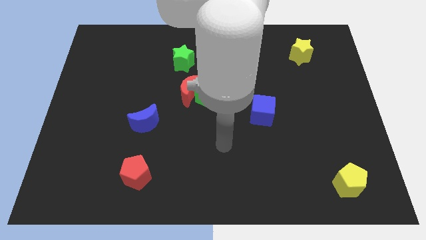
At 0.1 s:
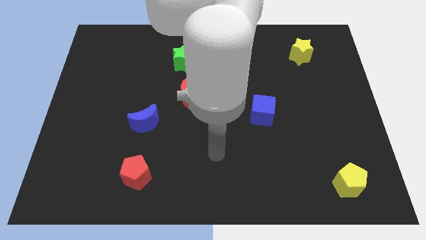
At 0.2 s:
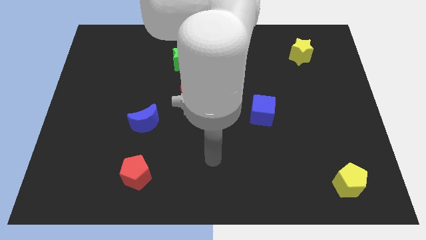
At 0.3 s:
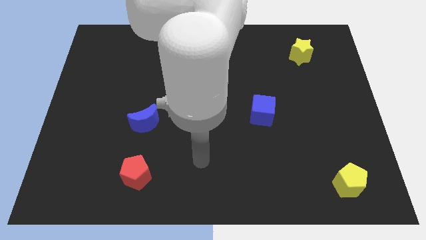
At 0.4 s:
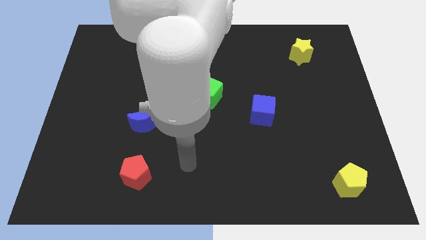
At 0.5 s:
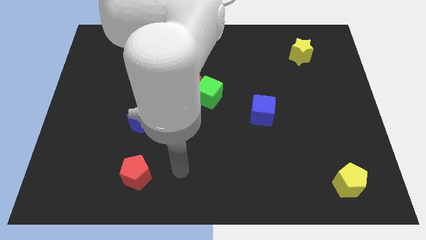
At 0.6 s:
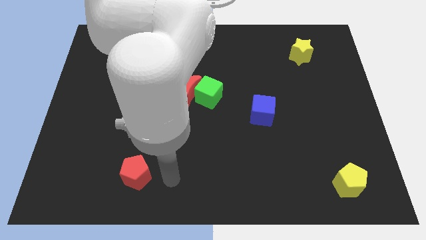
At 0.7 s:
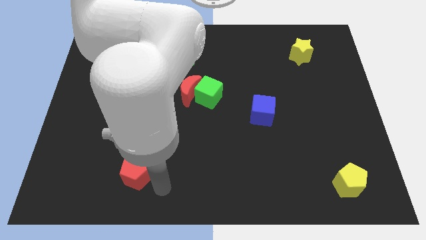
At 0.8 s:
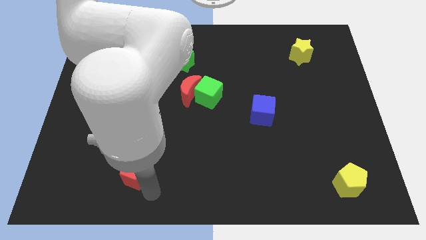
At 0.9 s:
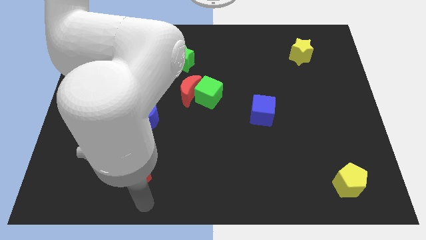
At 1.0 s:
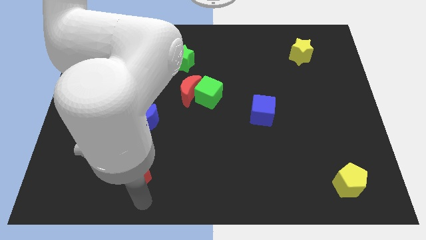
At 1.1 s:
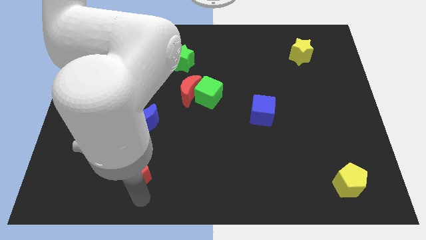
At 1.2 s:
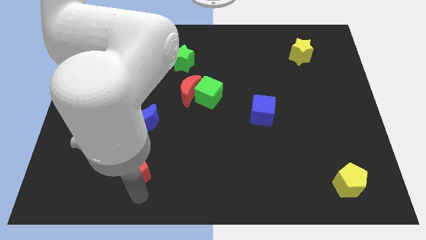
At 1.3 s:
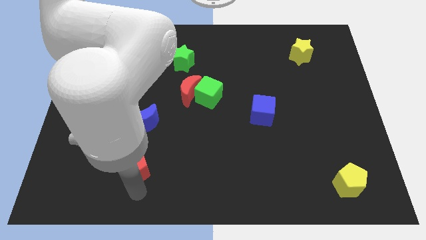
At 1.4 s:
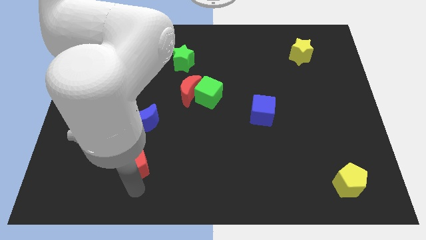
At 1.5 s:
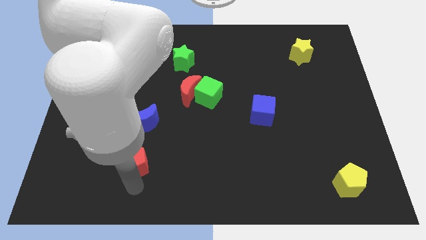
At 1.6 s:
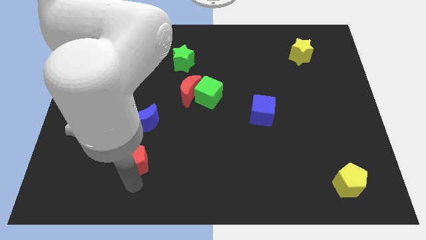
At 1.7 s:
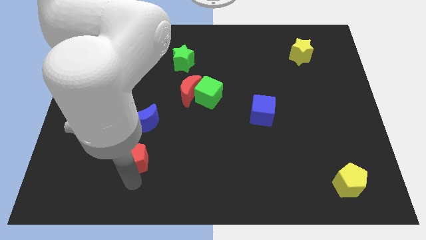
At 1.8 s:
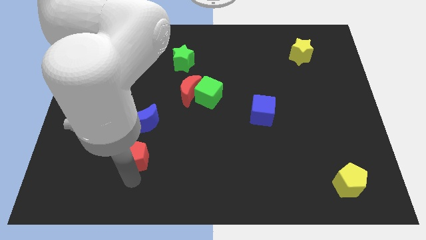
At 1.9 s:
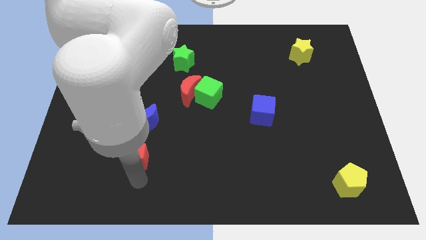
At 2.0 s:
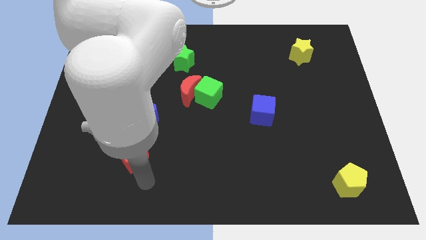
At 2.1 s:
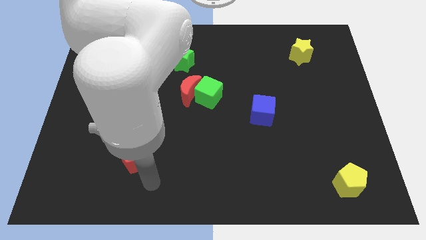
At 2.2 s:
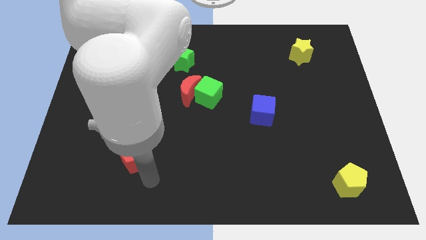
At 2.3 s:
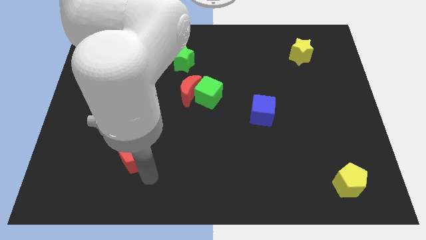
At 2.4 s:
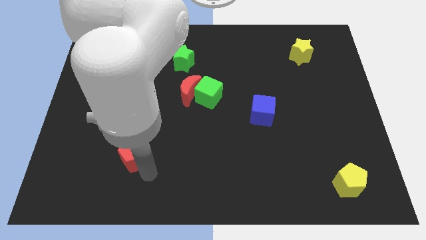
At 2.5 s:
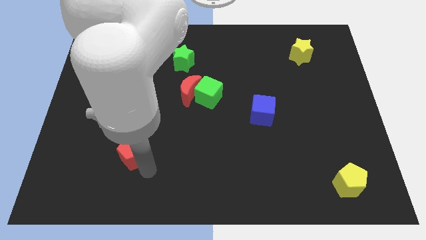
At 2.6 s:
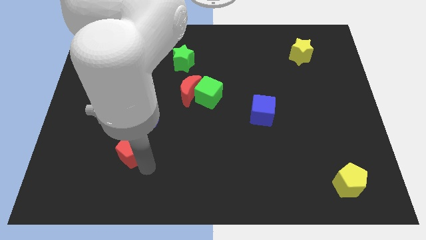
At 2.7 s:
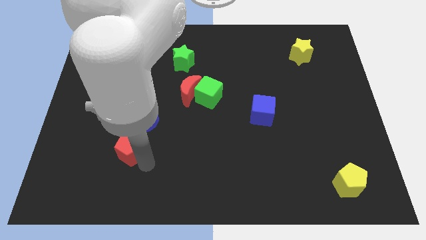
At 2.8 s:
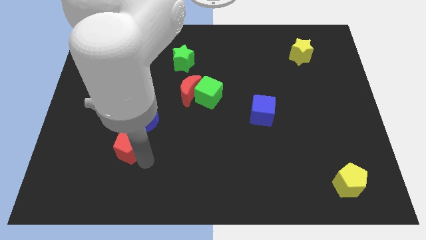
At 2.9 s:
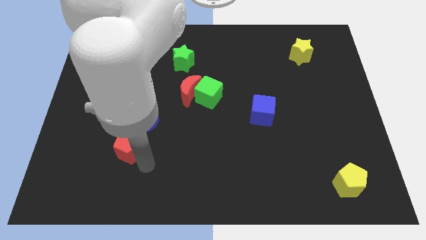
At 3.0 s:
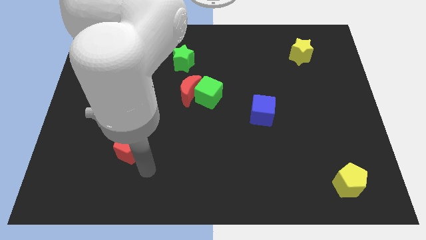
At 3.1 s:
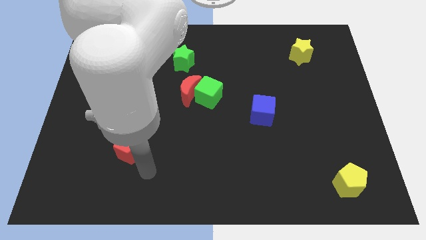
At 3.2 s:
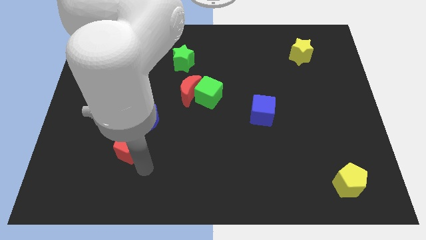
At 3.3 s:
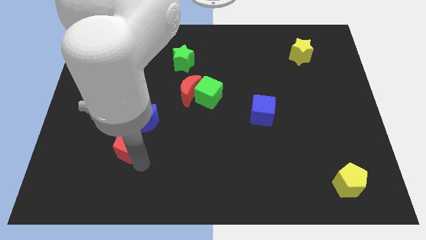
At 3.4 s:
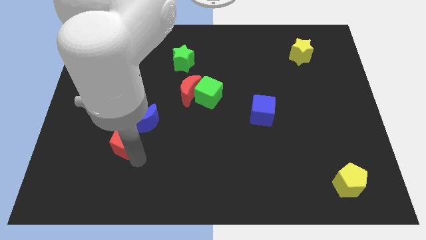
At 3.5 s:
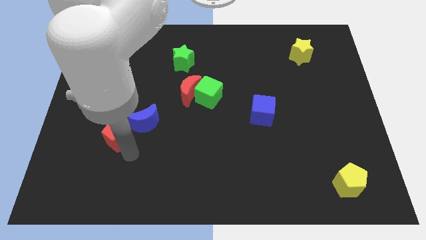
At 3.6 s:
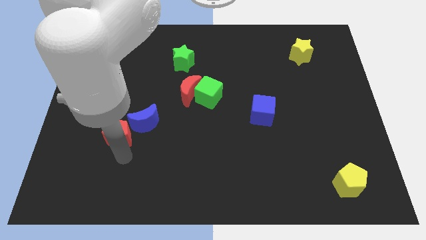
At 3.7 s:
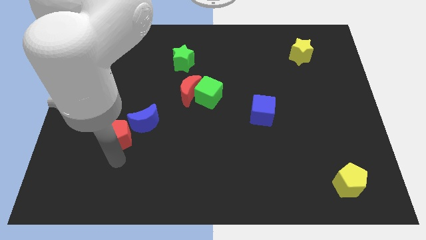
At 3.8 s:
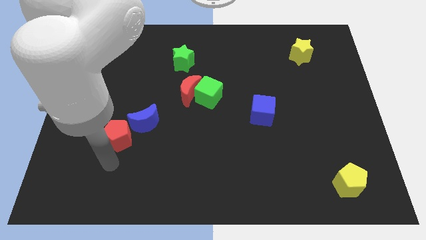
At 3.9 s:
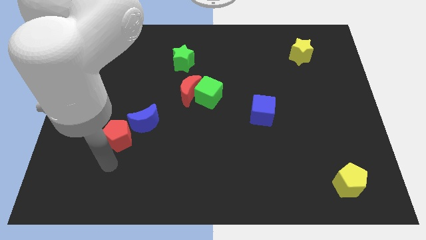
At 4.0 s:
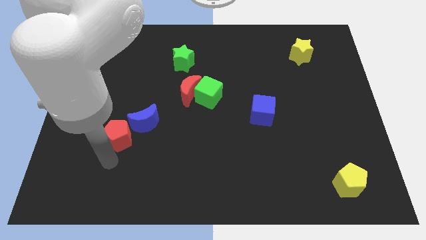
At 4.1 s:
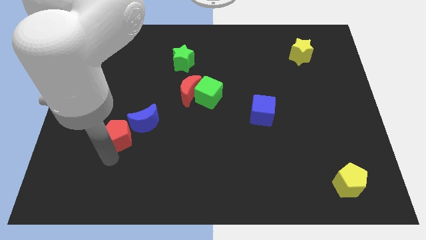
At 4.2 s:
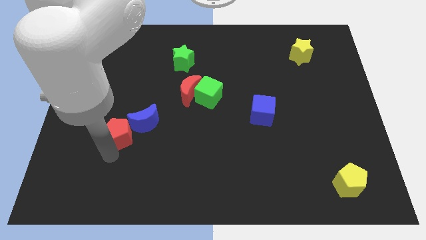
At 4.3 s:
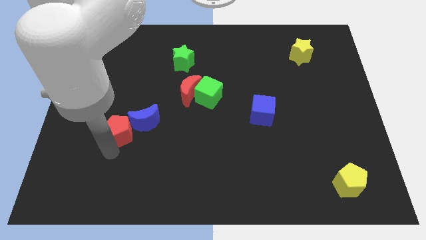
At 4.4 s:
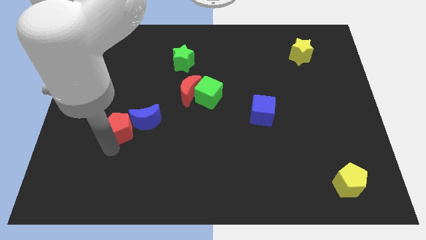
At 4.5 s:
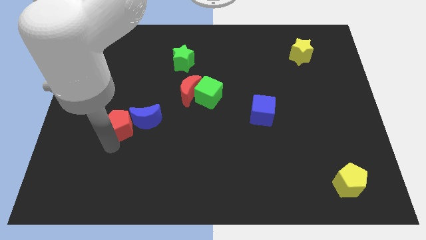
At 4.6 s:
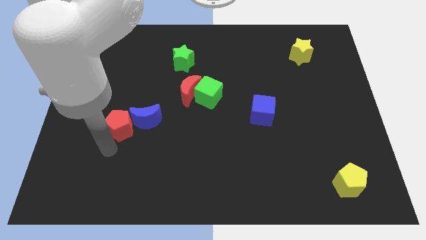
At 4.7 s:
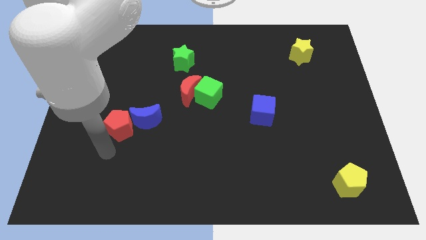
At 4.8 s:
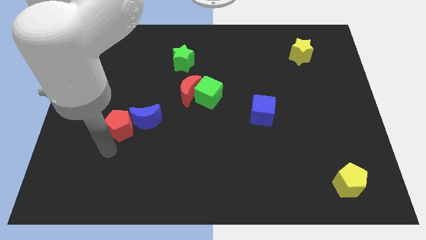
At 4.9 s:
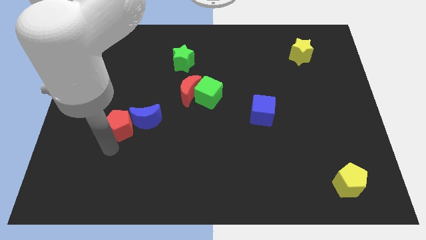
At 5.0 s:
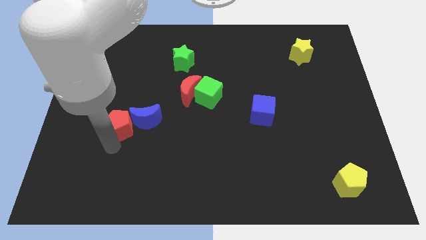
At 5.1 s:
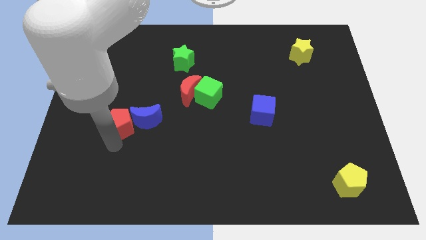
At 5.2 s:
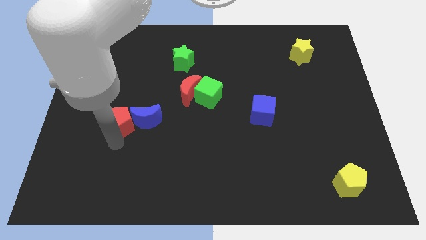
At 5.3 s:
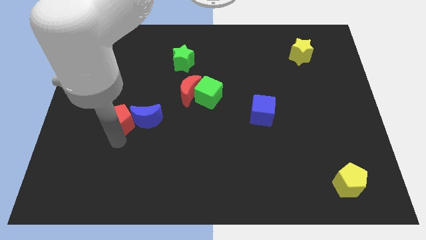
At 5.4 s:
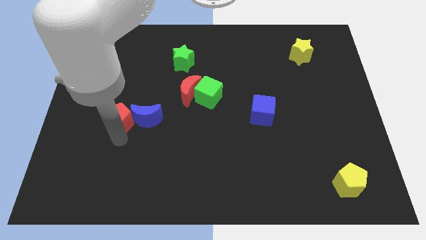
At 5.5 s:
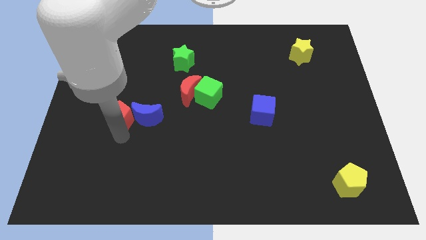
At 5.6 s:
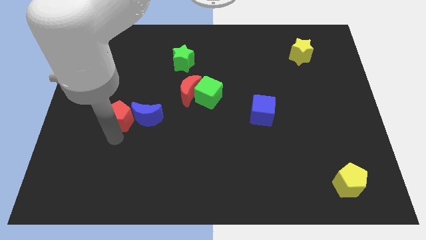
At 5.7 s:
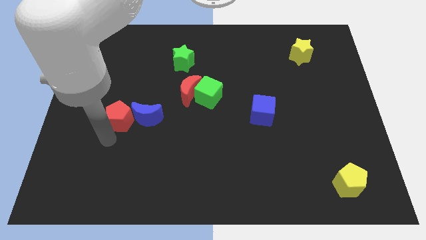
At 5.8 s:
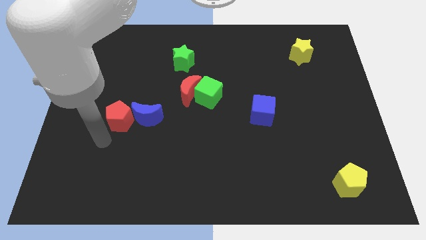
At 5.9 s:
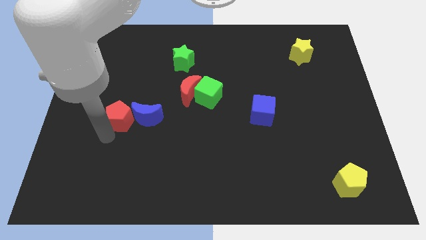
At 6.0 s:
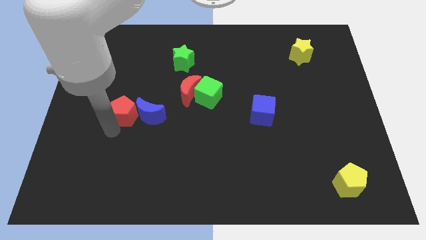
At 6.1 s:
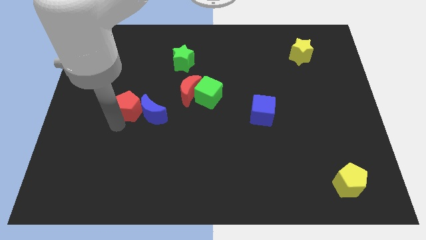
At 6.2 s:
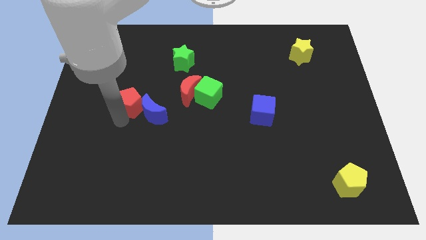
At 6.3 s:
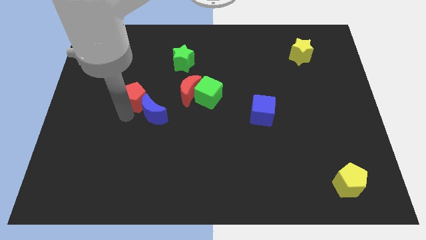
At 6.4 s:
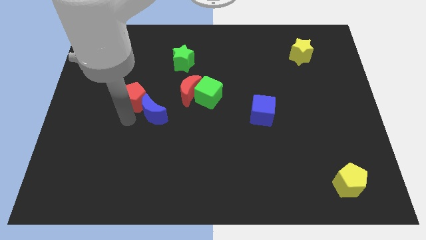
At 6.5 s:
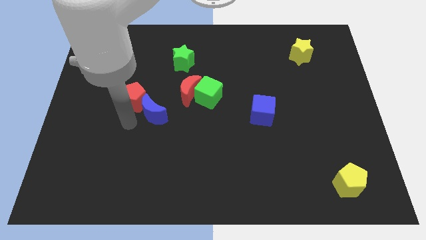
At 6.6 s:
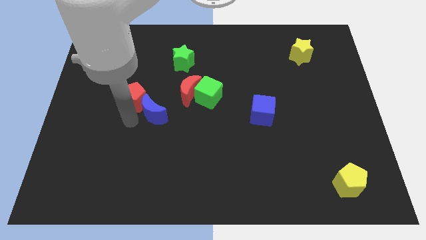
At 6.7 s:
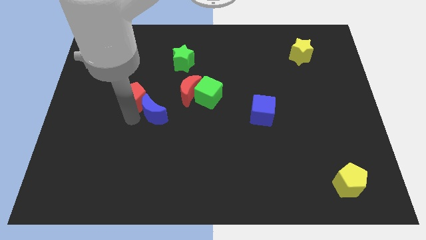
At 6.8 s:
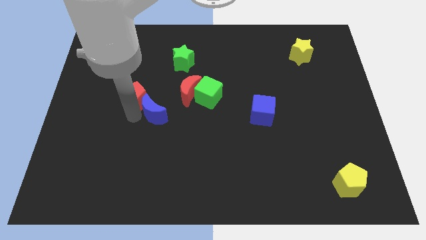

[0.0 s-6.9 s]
slide the red pentagon upwards

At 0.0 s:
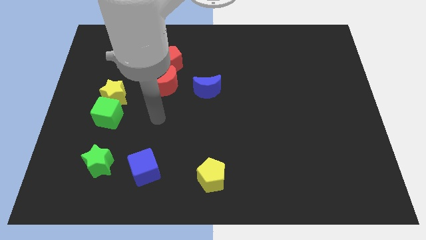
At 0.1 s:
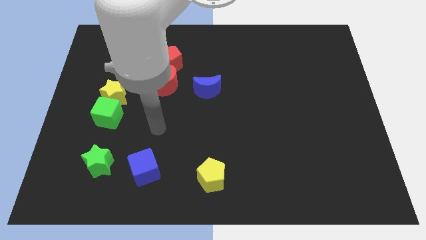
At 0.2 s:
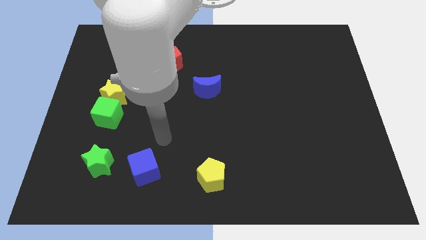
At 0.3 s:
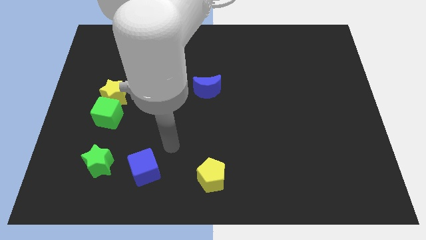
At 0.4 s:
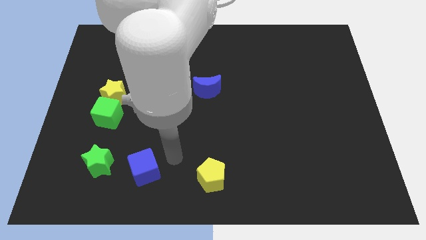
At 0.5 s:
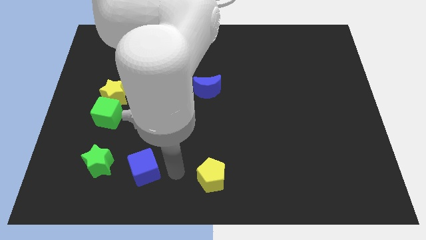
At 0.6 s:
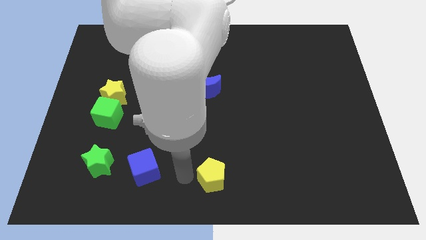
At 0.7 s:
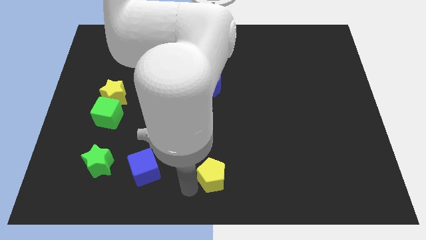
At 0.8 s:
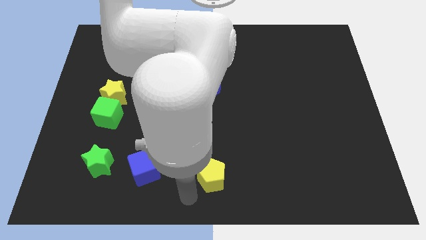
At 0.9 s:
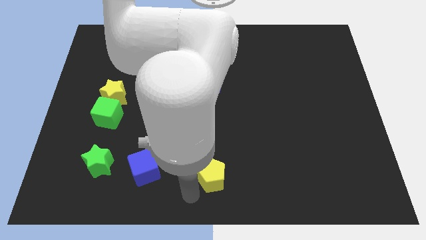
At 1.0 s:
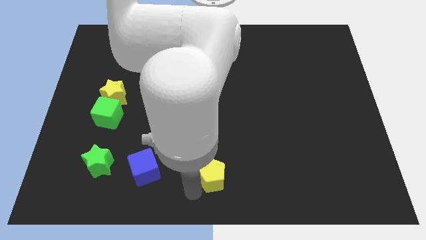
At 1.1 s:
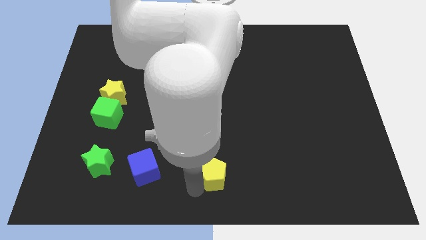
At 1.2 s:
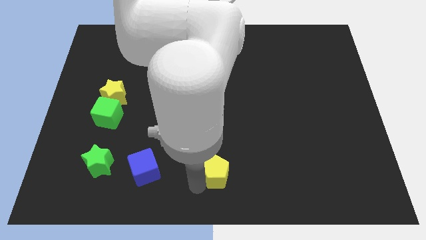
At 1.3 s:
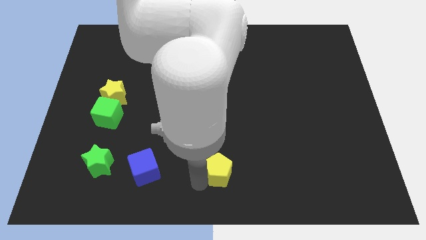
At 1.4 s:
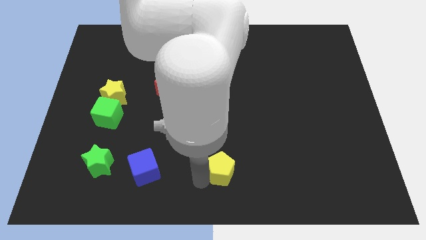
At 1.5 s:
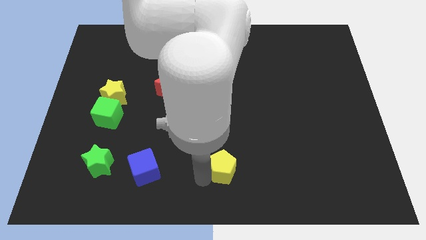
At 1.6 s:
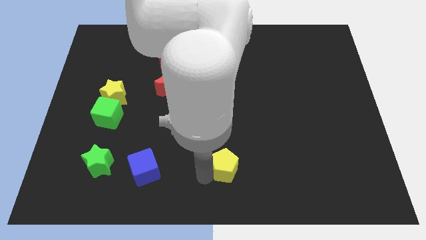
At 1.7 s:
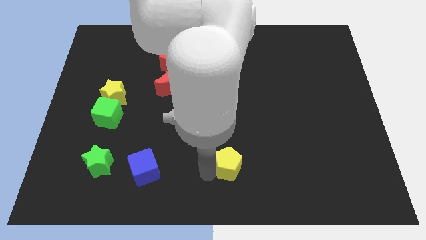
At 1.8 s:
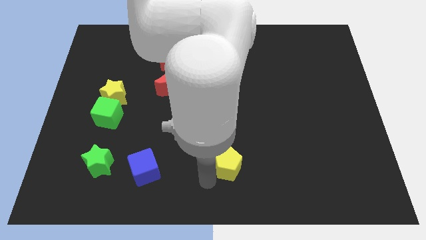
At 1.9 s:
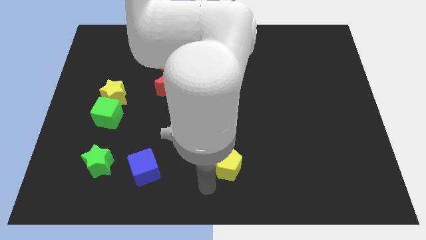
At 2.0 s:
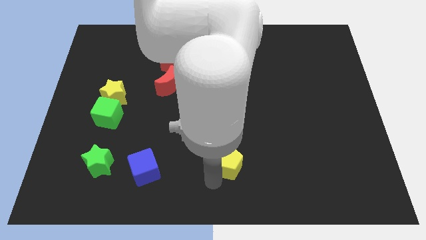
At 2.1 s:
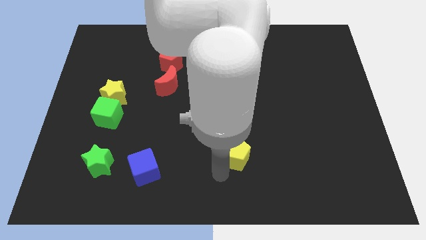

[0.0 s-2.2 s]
move the yellow pentagon up and then to the right a little
